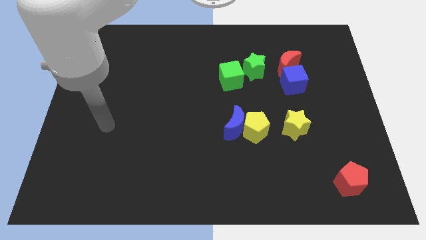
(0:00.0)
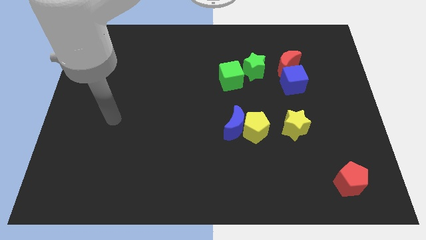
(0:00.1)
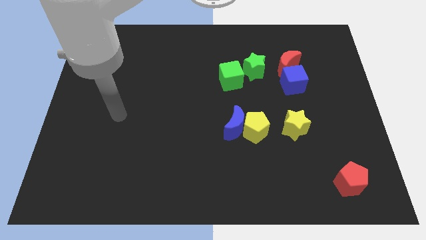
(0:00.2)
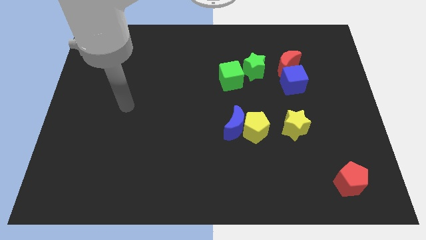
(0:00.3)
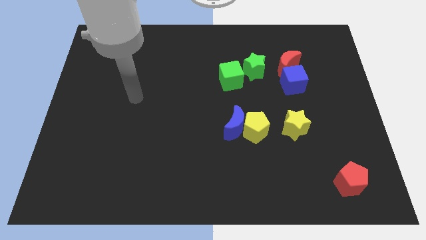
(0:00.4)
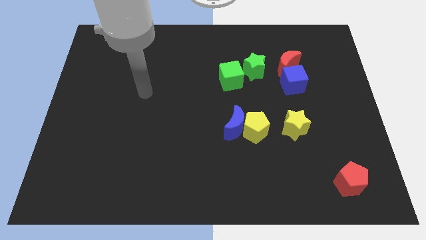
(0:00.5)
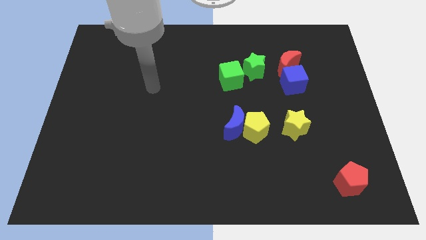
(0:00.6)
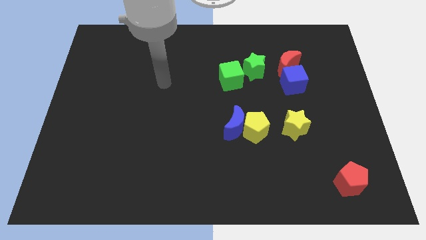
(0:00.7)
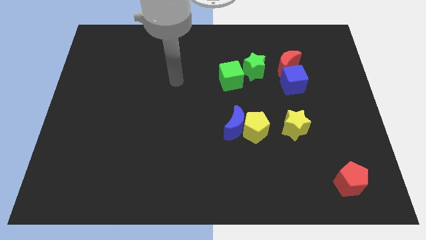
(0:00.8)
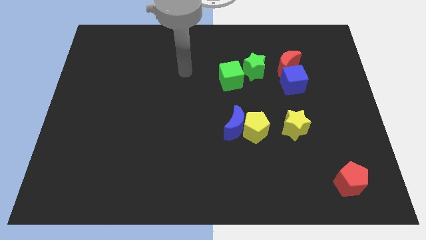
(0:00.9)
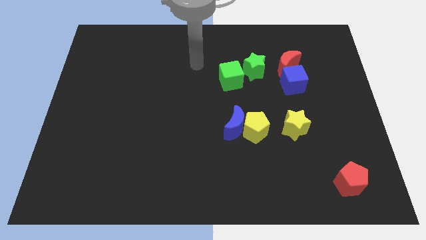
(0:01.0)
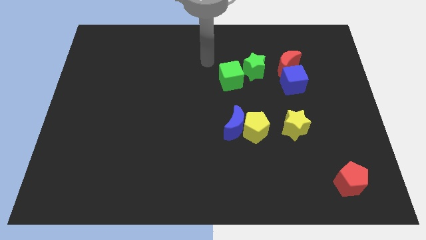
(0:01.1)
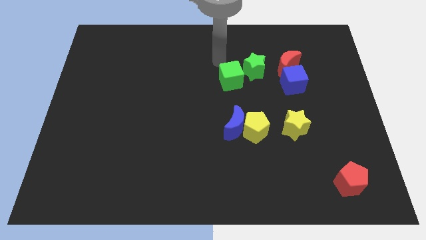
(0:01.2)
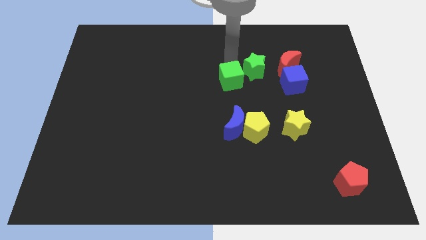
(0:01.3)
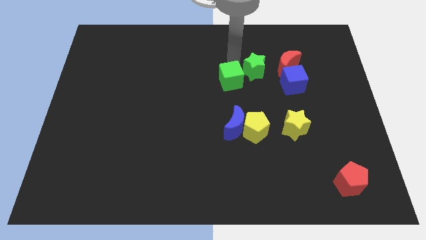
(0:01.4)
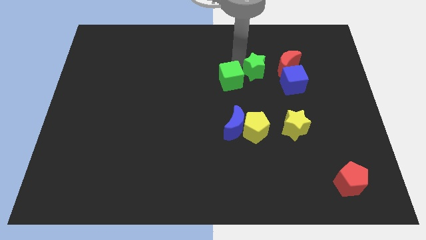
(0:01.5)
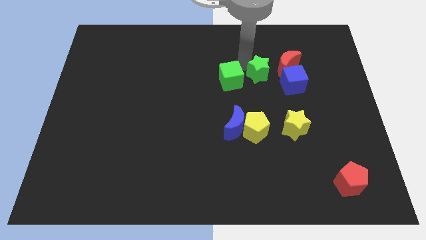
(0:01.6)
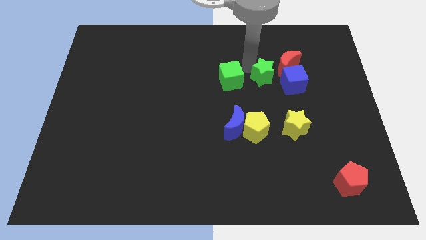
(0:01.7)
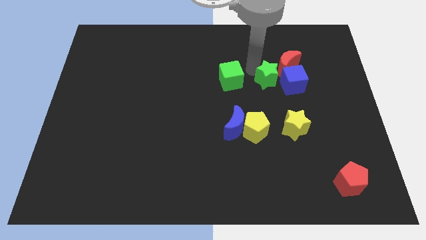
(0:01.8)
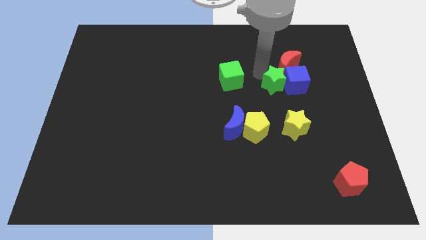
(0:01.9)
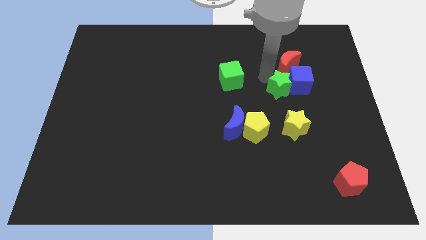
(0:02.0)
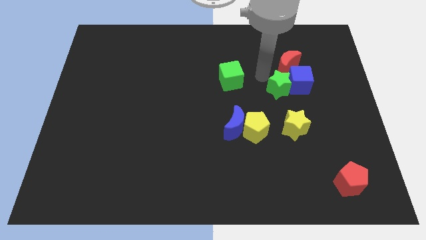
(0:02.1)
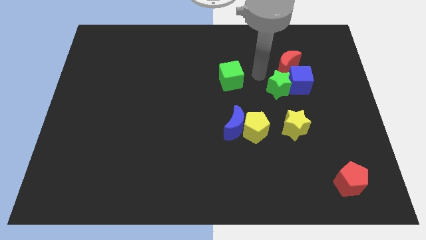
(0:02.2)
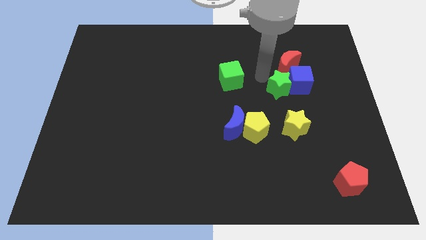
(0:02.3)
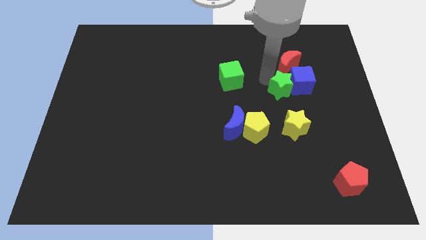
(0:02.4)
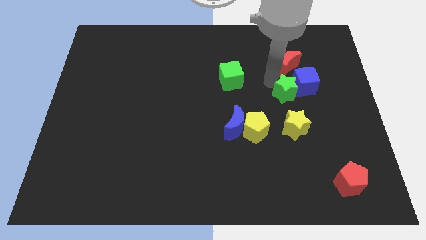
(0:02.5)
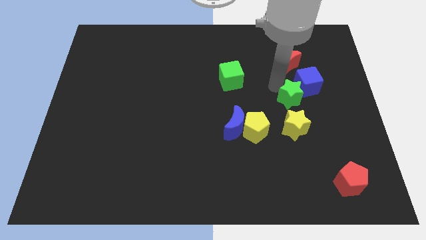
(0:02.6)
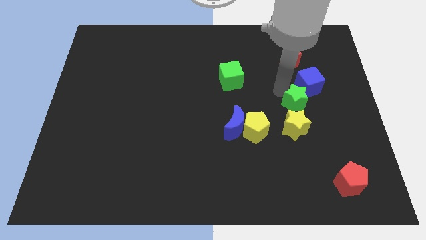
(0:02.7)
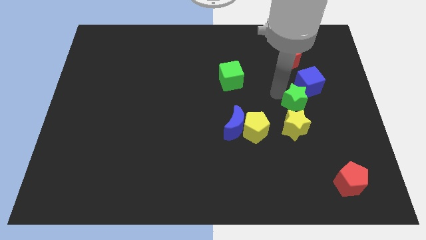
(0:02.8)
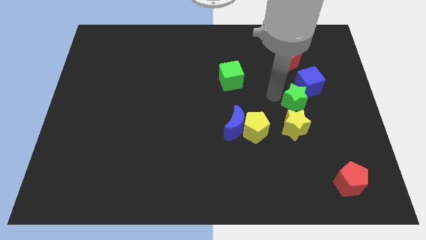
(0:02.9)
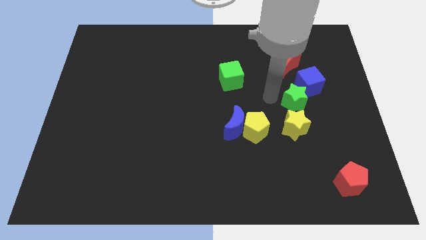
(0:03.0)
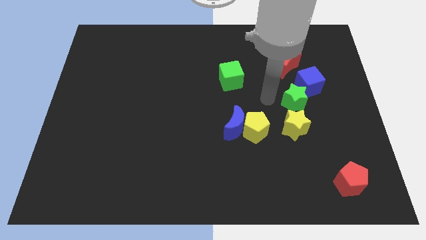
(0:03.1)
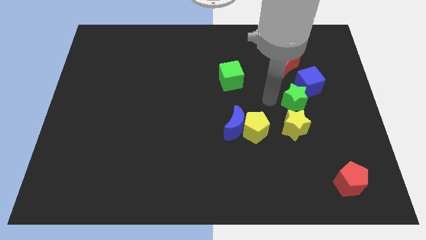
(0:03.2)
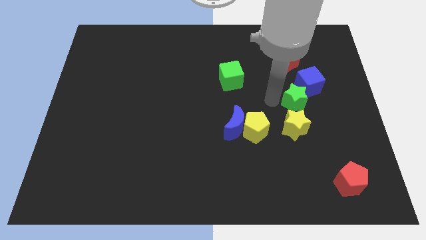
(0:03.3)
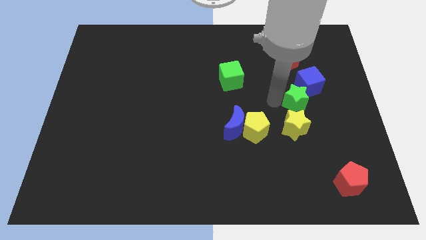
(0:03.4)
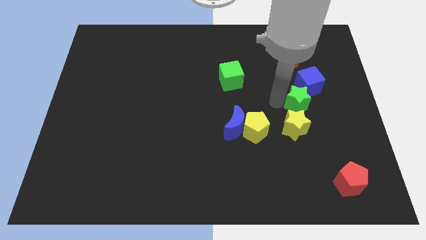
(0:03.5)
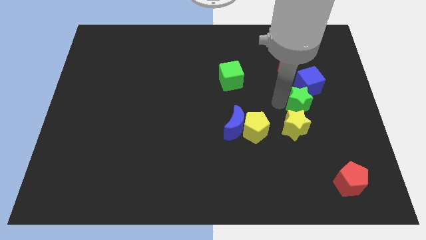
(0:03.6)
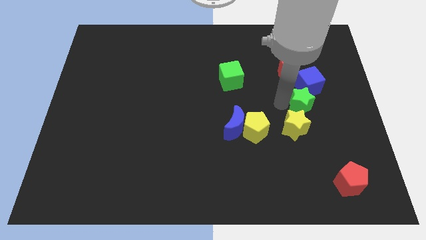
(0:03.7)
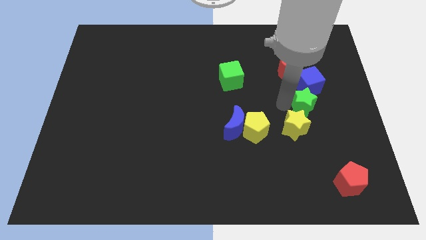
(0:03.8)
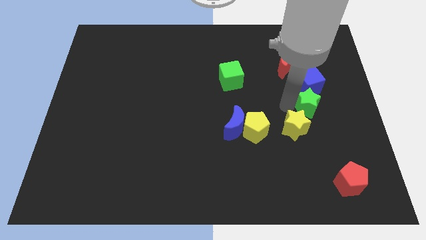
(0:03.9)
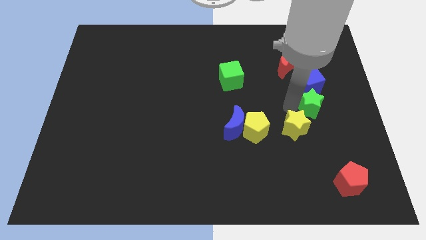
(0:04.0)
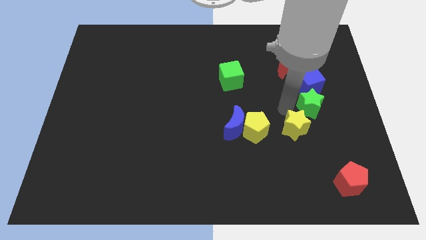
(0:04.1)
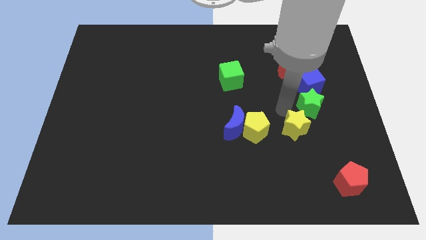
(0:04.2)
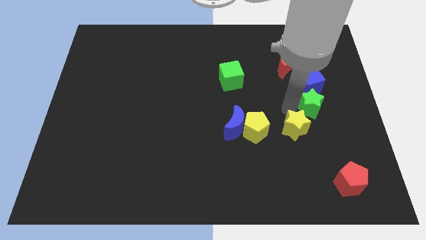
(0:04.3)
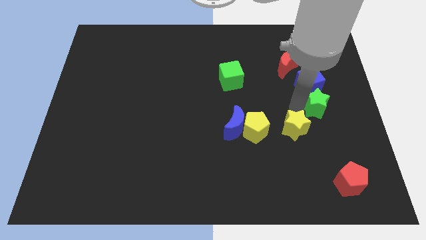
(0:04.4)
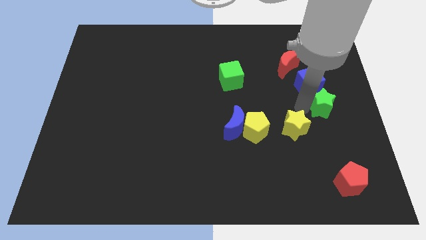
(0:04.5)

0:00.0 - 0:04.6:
move the green star to the center right

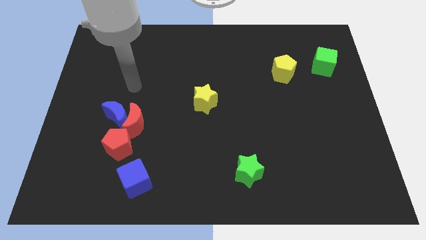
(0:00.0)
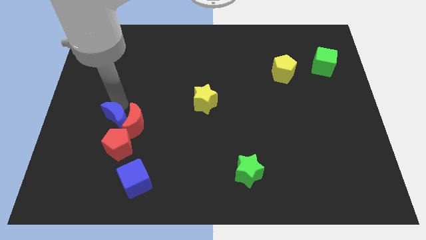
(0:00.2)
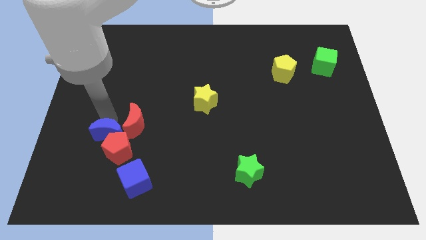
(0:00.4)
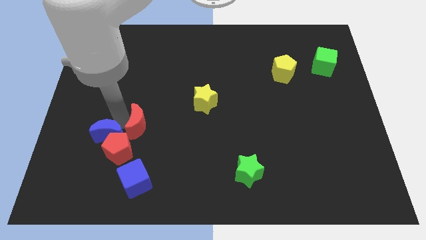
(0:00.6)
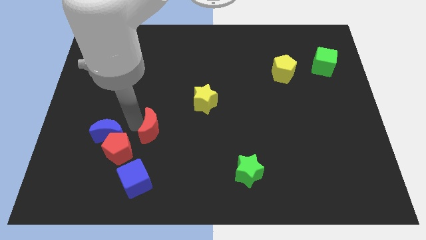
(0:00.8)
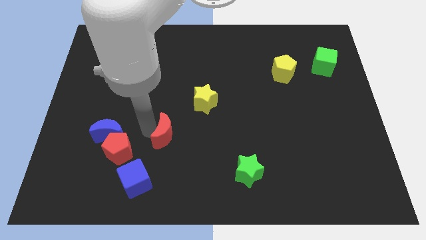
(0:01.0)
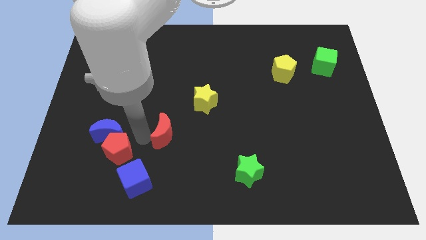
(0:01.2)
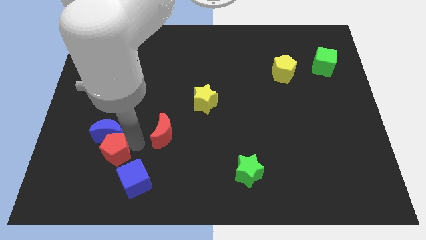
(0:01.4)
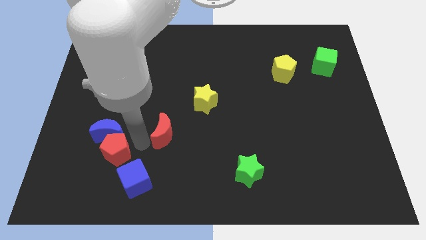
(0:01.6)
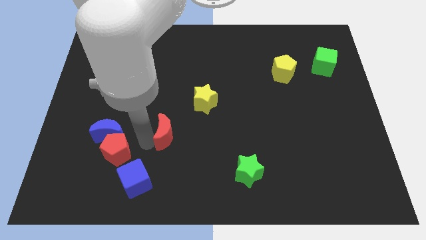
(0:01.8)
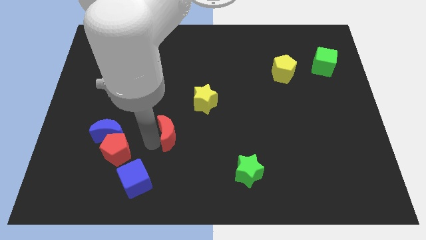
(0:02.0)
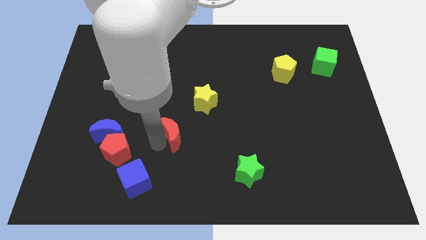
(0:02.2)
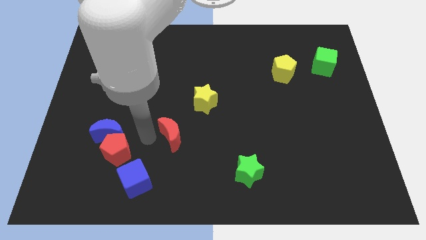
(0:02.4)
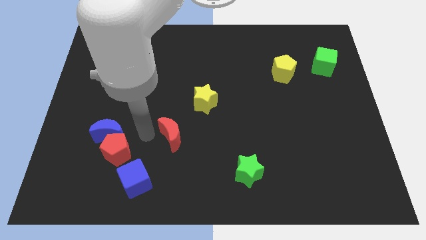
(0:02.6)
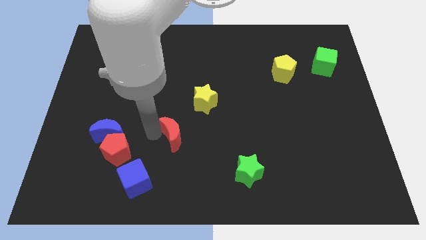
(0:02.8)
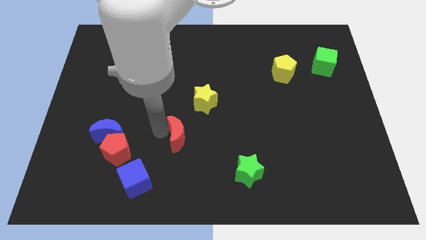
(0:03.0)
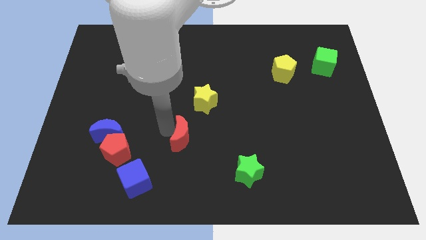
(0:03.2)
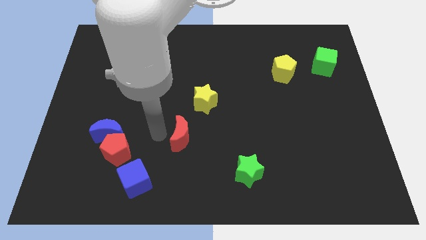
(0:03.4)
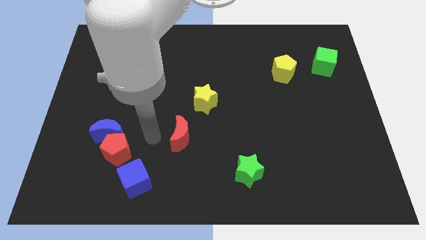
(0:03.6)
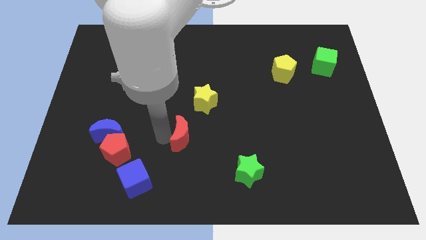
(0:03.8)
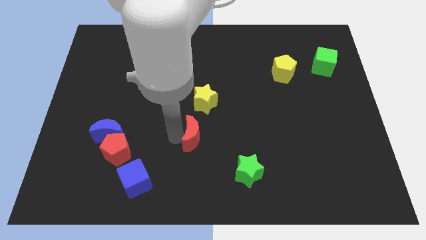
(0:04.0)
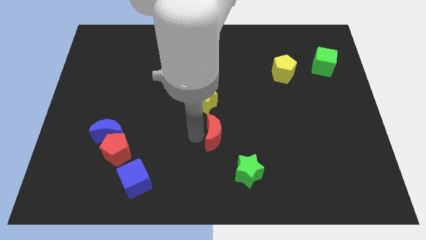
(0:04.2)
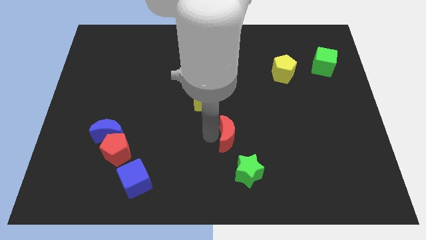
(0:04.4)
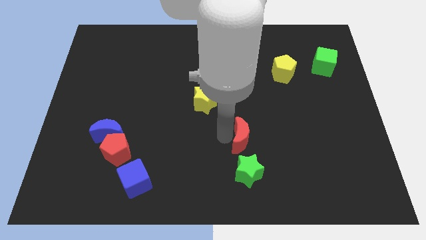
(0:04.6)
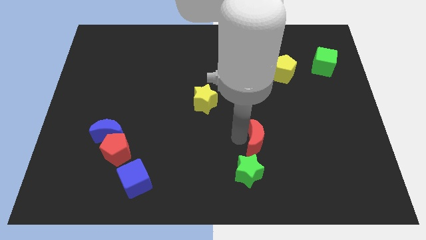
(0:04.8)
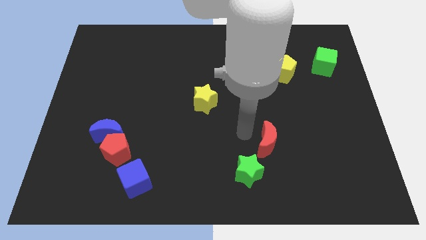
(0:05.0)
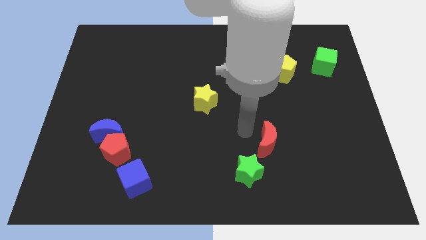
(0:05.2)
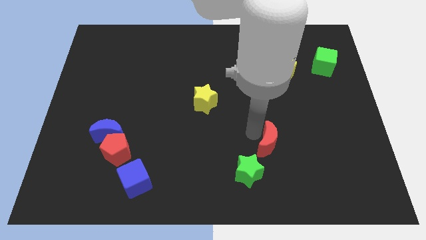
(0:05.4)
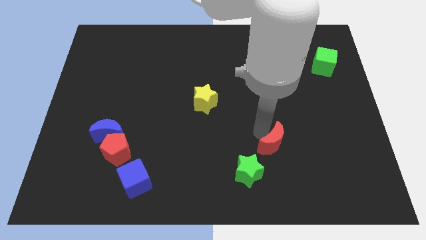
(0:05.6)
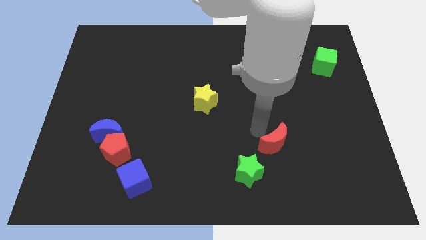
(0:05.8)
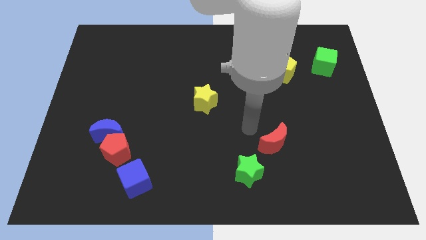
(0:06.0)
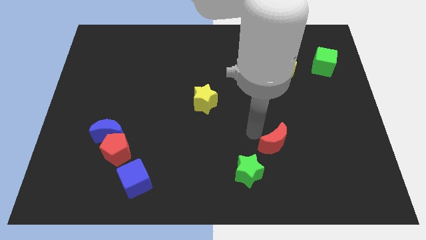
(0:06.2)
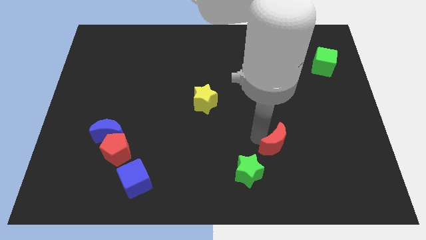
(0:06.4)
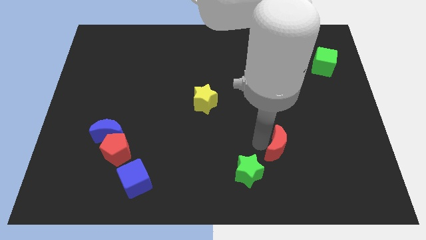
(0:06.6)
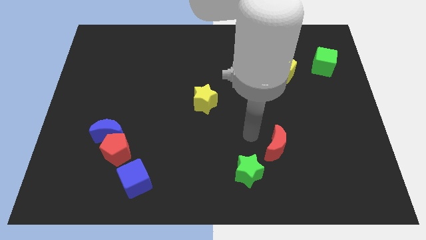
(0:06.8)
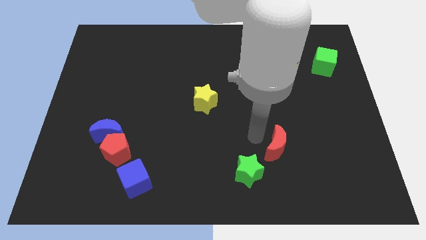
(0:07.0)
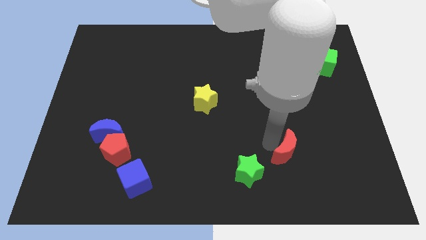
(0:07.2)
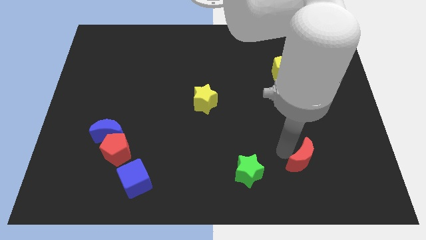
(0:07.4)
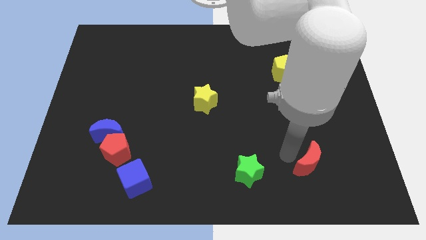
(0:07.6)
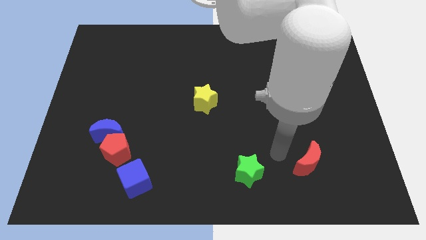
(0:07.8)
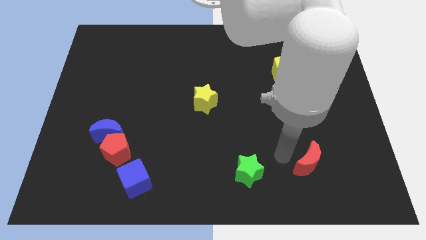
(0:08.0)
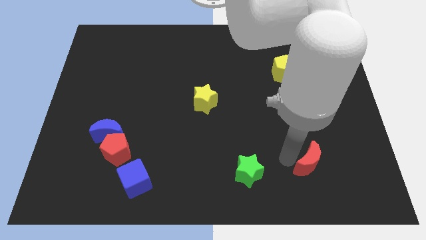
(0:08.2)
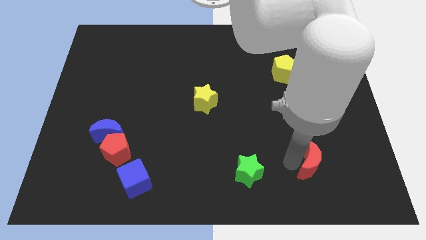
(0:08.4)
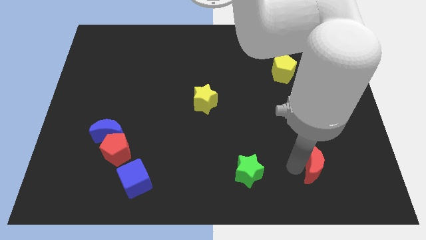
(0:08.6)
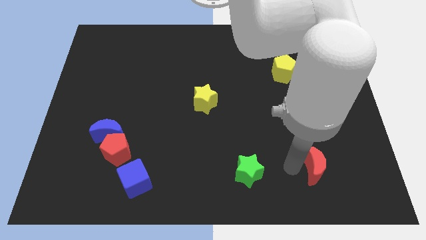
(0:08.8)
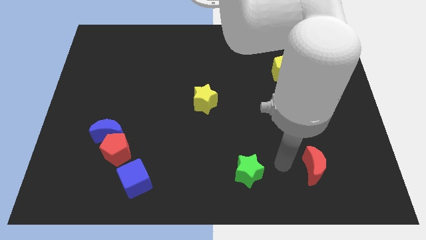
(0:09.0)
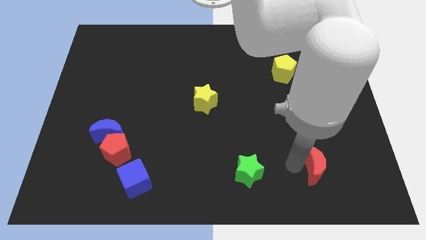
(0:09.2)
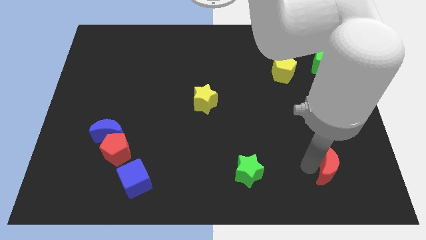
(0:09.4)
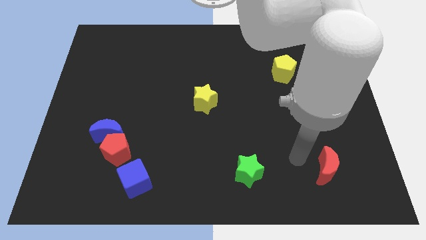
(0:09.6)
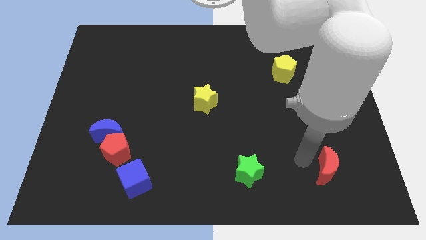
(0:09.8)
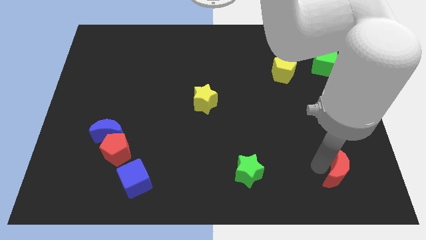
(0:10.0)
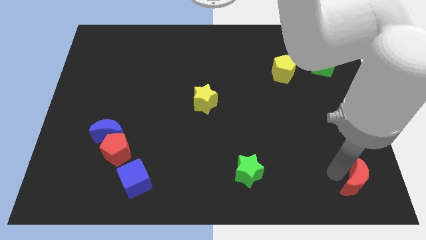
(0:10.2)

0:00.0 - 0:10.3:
push the red moon to the lower right corner
